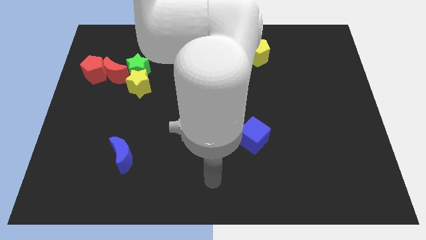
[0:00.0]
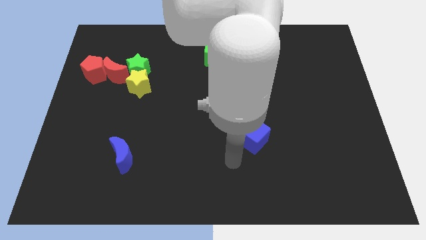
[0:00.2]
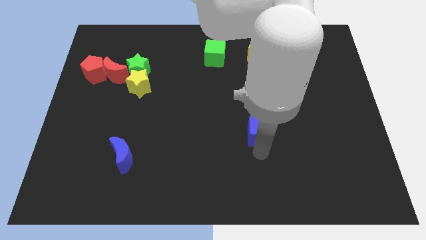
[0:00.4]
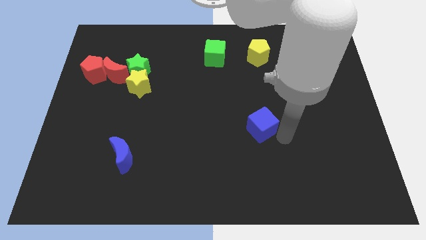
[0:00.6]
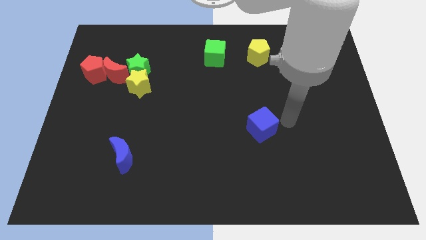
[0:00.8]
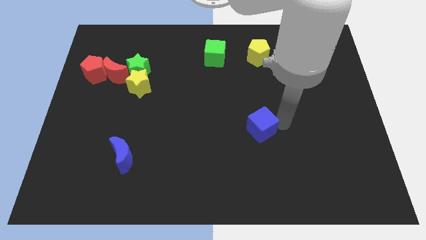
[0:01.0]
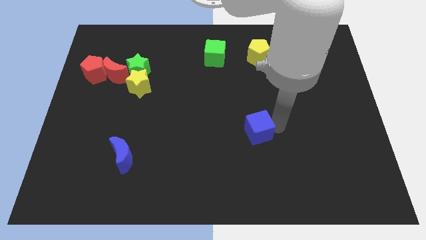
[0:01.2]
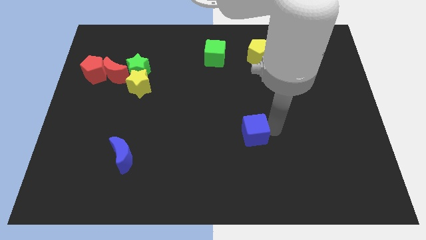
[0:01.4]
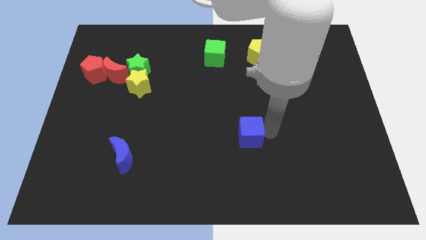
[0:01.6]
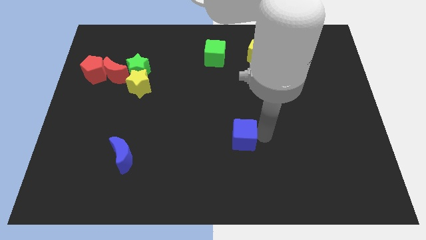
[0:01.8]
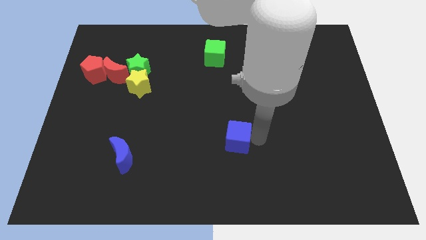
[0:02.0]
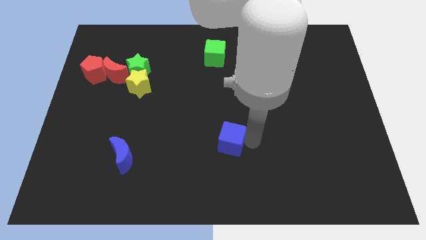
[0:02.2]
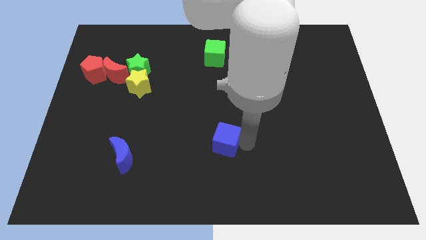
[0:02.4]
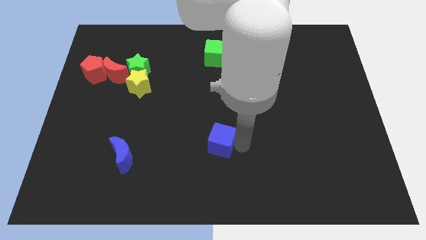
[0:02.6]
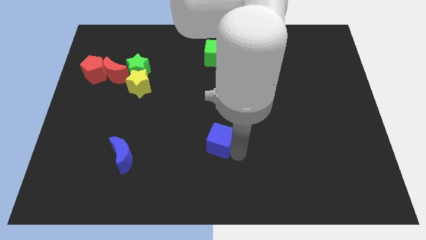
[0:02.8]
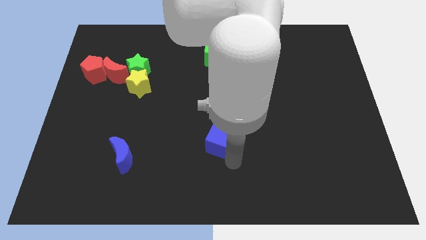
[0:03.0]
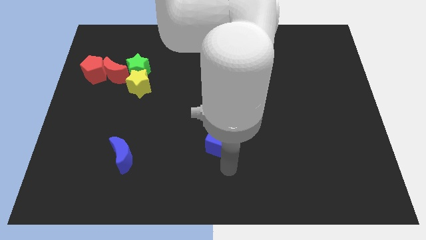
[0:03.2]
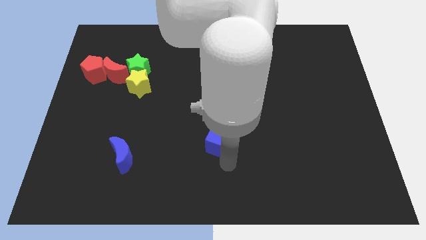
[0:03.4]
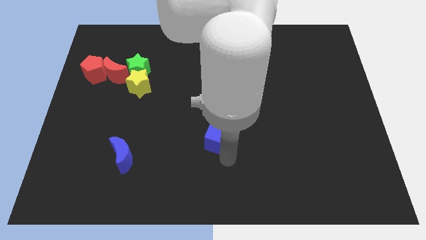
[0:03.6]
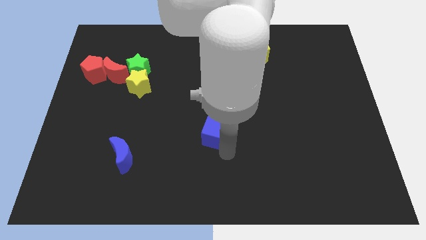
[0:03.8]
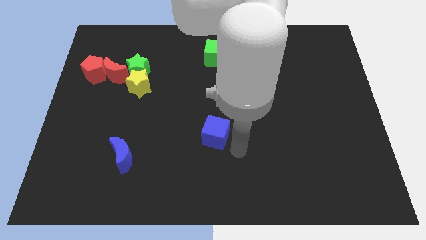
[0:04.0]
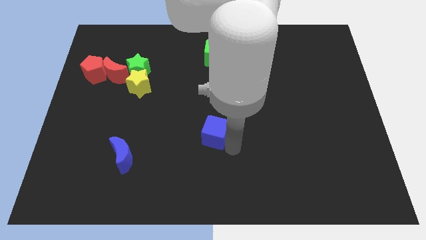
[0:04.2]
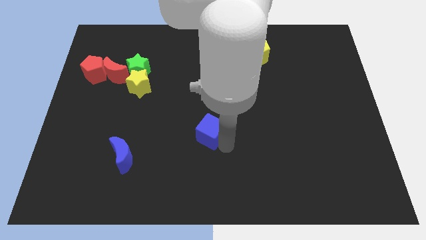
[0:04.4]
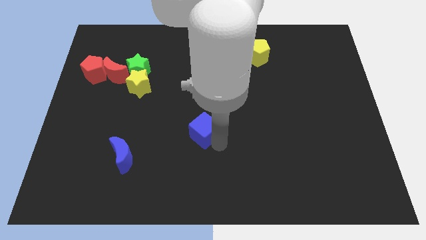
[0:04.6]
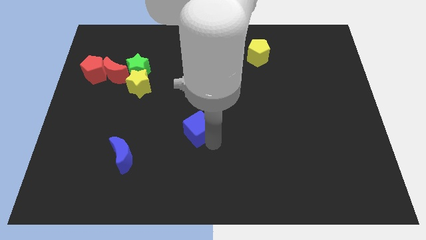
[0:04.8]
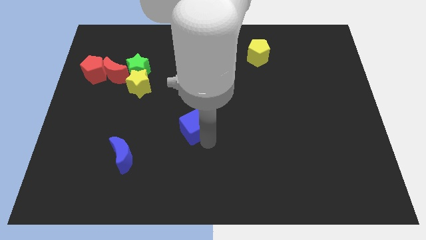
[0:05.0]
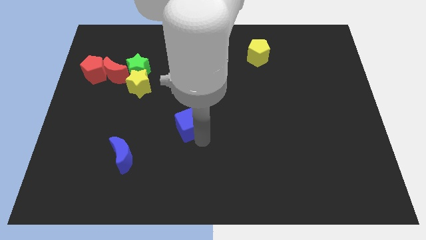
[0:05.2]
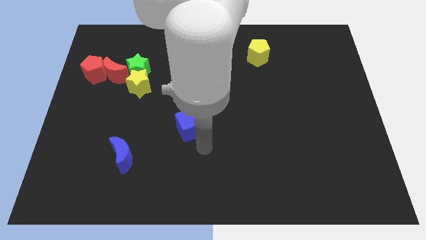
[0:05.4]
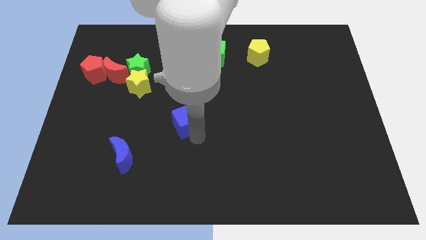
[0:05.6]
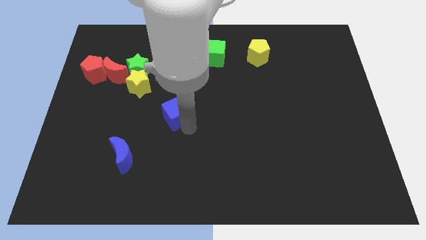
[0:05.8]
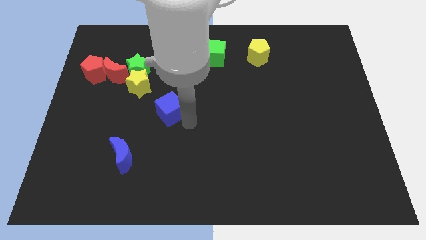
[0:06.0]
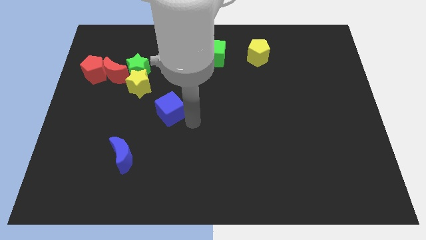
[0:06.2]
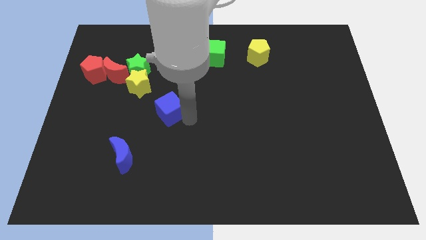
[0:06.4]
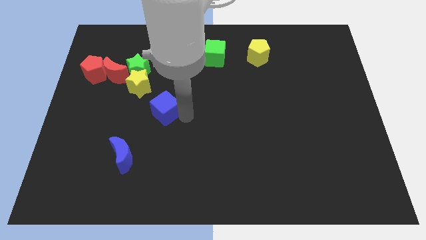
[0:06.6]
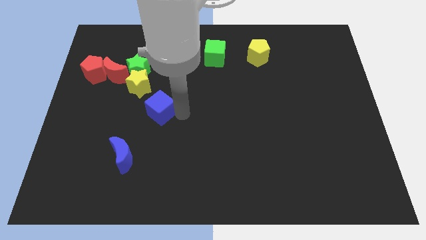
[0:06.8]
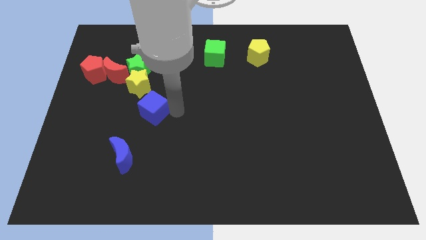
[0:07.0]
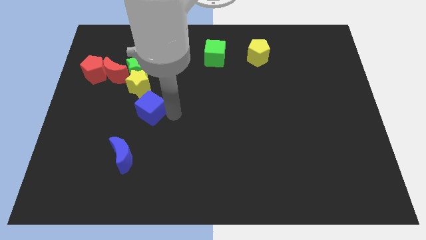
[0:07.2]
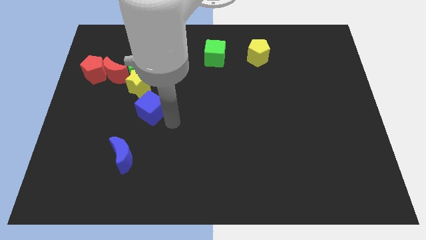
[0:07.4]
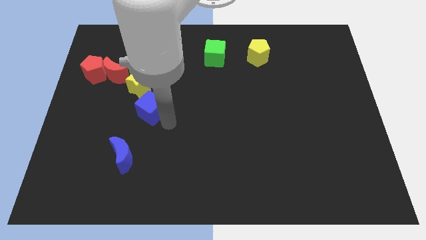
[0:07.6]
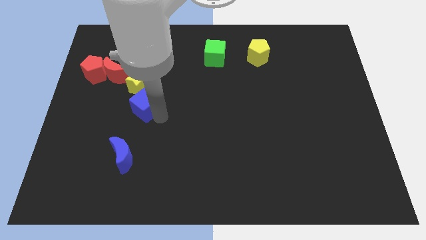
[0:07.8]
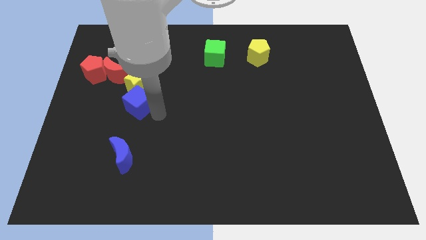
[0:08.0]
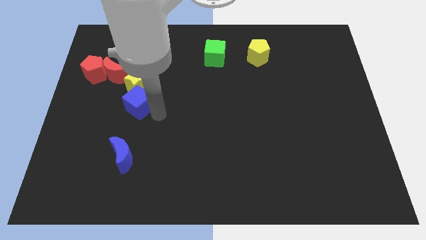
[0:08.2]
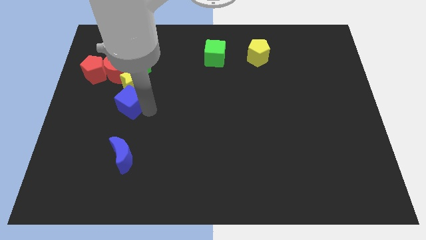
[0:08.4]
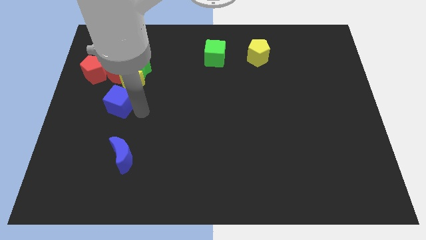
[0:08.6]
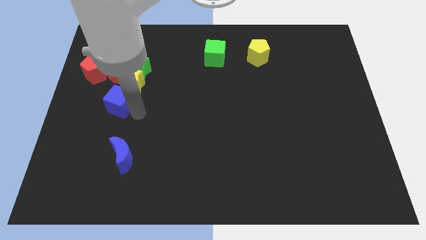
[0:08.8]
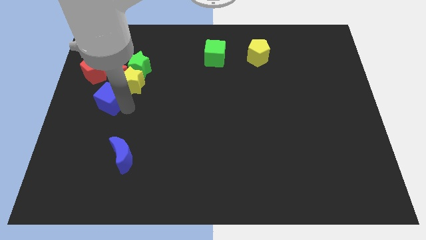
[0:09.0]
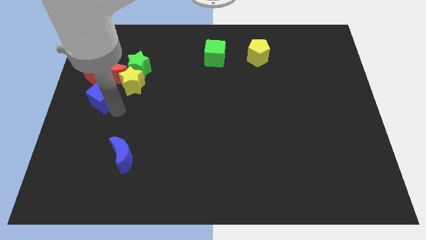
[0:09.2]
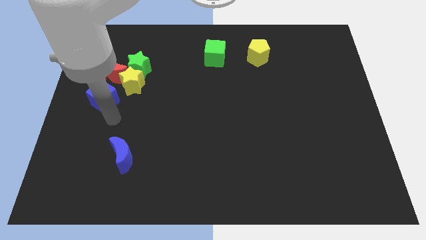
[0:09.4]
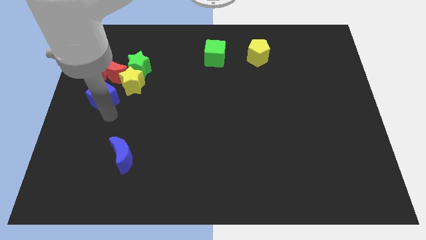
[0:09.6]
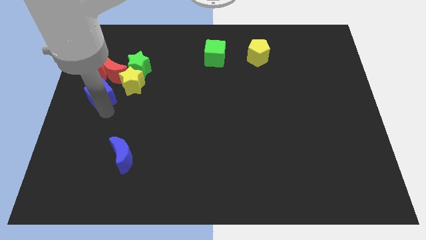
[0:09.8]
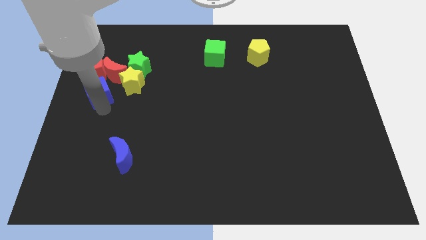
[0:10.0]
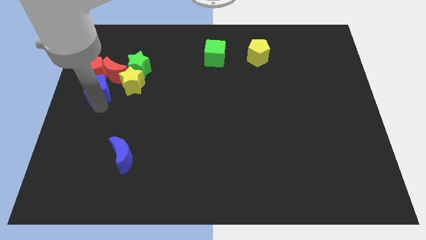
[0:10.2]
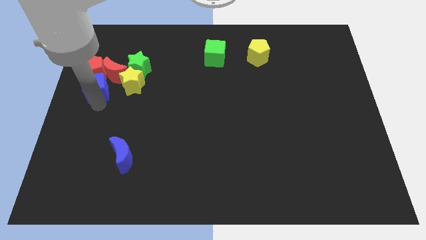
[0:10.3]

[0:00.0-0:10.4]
push the blue cube close to the red pentagon

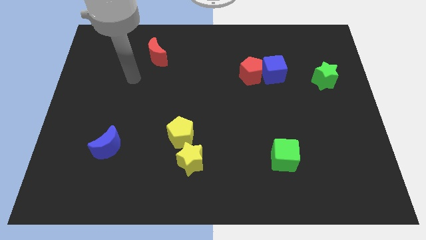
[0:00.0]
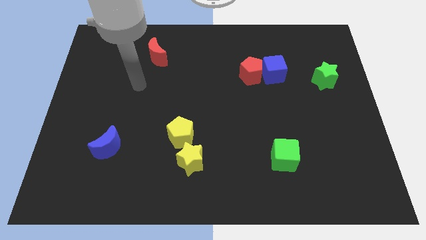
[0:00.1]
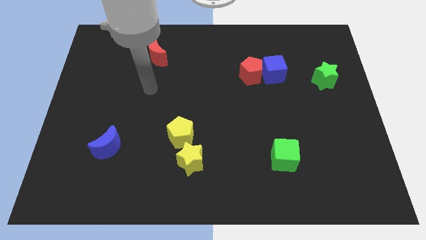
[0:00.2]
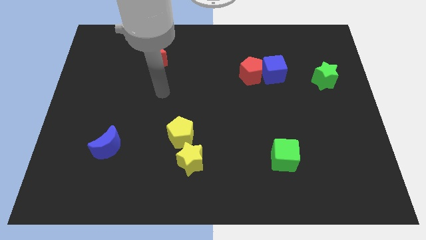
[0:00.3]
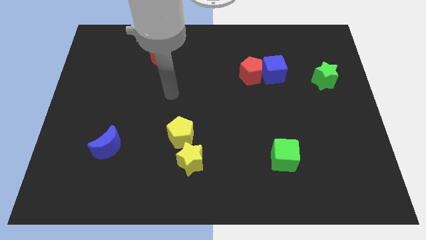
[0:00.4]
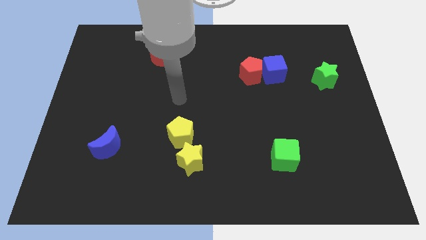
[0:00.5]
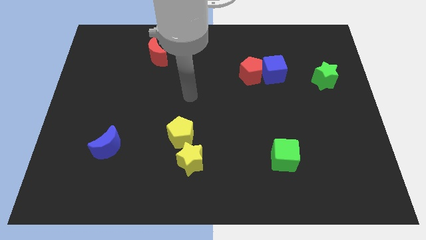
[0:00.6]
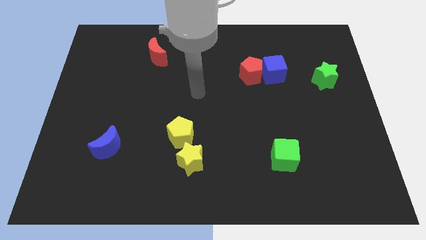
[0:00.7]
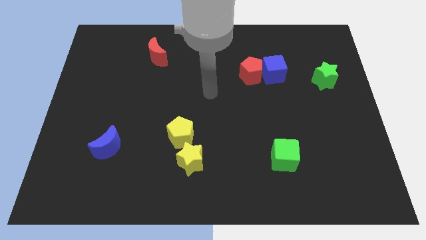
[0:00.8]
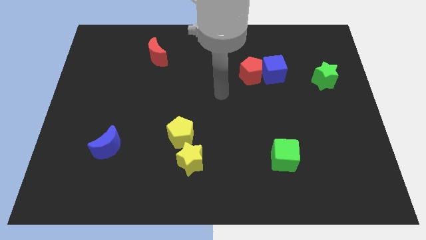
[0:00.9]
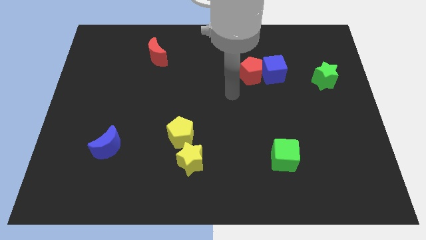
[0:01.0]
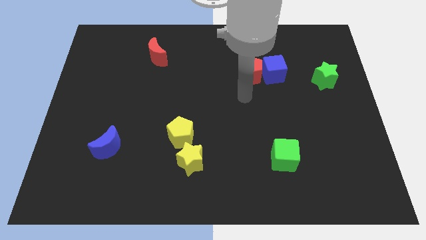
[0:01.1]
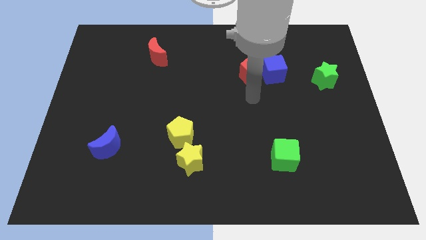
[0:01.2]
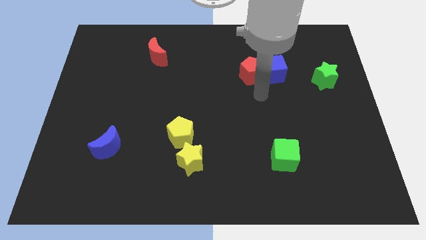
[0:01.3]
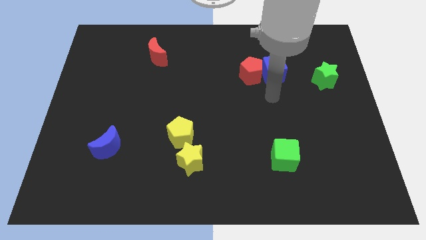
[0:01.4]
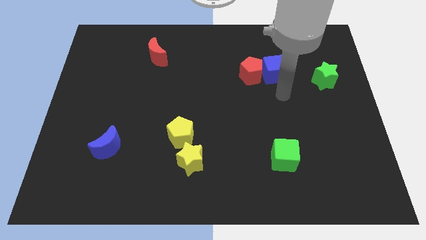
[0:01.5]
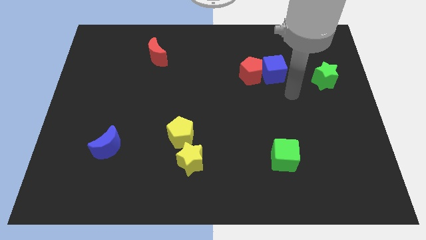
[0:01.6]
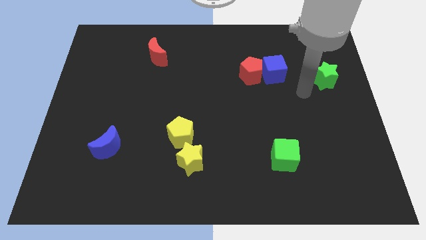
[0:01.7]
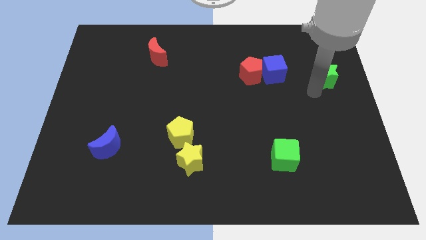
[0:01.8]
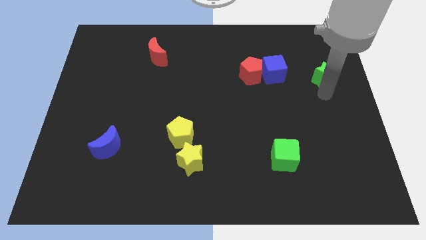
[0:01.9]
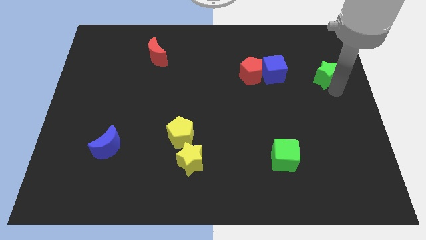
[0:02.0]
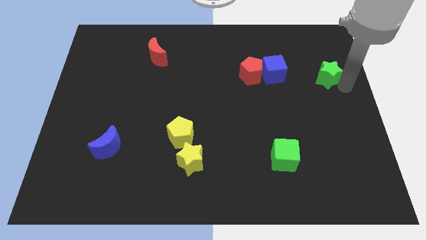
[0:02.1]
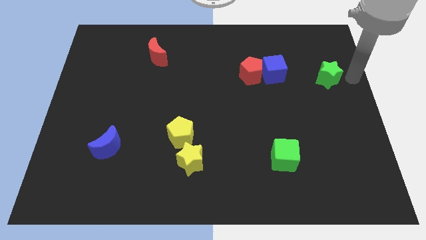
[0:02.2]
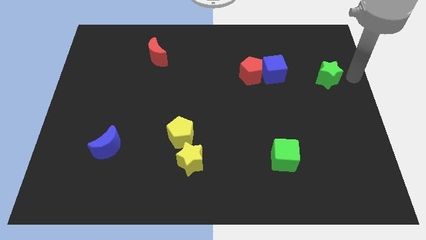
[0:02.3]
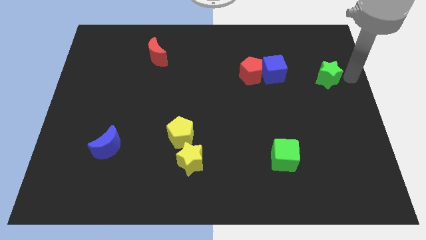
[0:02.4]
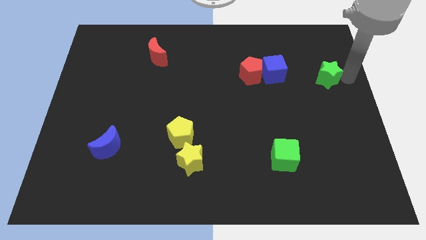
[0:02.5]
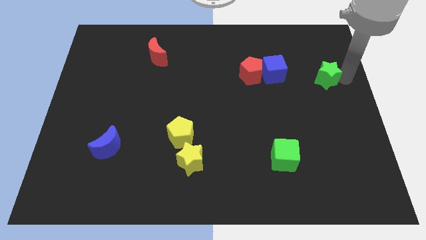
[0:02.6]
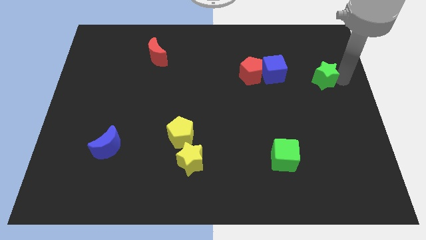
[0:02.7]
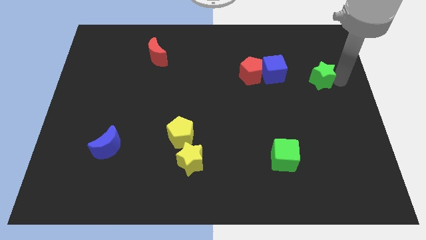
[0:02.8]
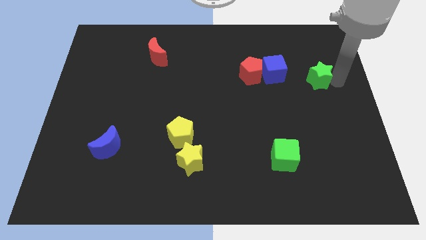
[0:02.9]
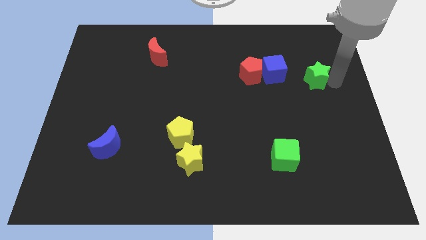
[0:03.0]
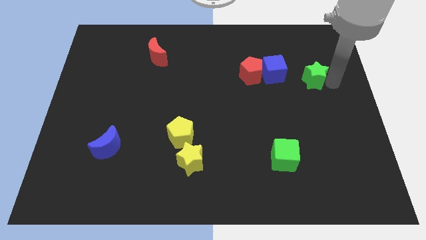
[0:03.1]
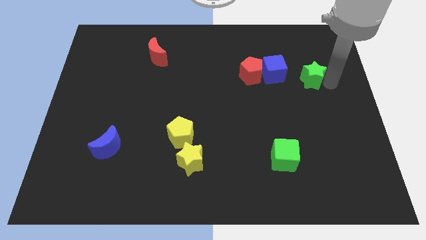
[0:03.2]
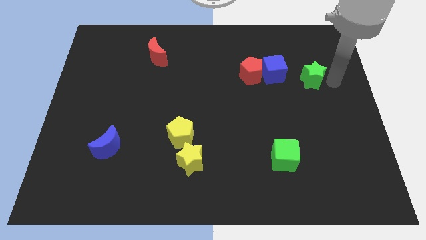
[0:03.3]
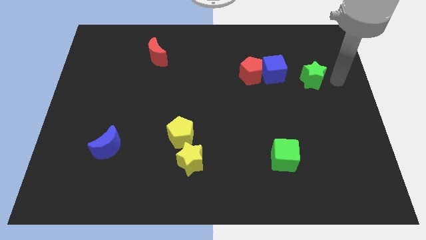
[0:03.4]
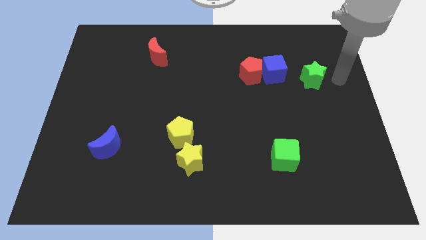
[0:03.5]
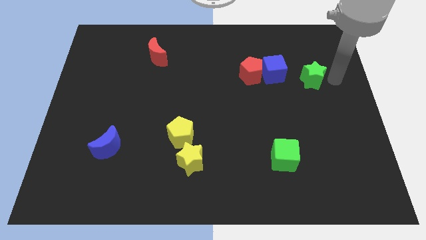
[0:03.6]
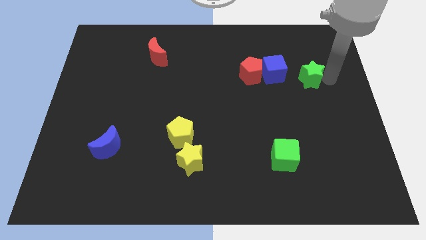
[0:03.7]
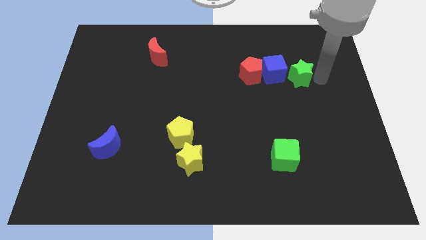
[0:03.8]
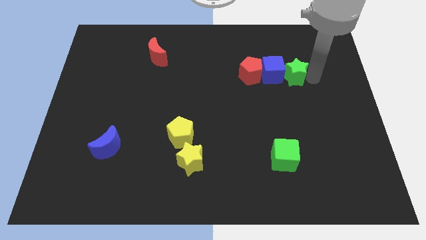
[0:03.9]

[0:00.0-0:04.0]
push the green star close to the blue cube
